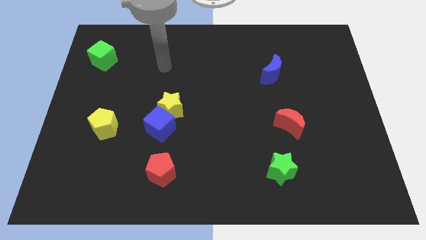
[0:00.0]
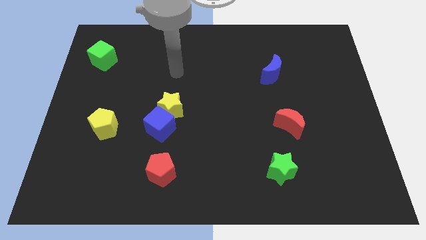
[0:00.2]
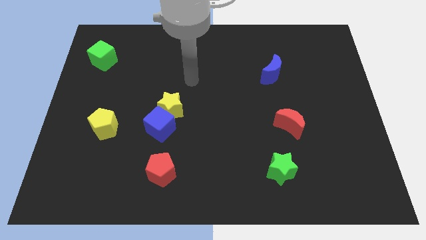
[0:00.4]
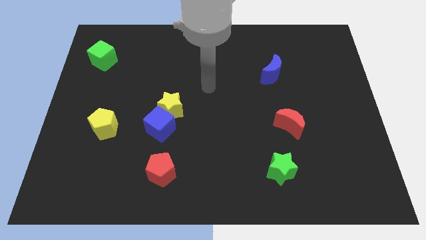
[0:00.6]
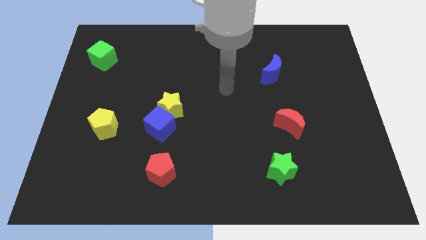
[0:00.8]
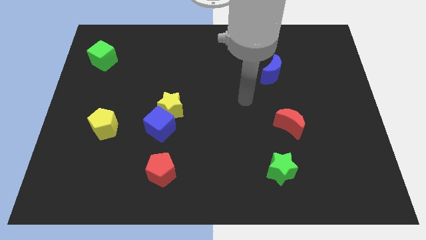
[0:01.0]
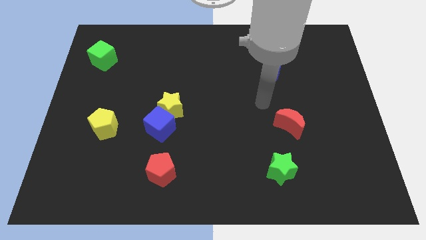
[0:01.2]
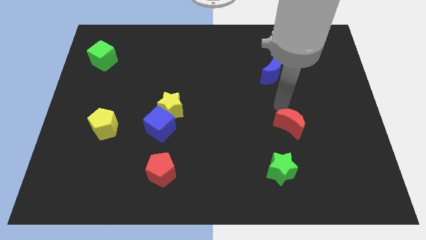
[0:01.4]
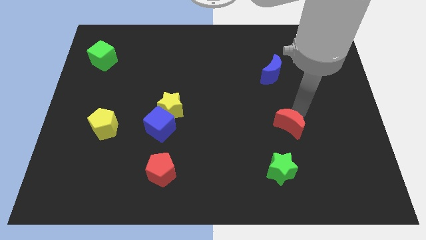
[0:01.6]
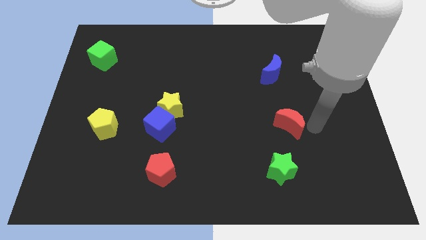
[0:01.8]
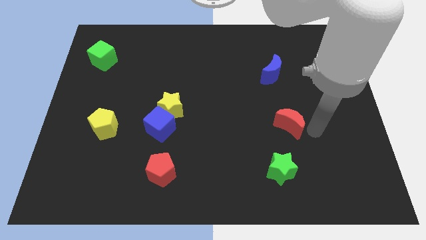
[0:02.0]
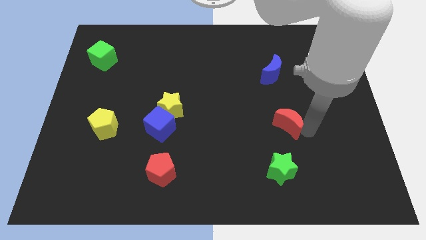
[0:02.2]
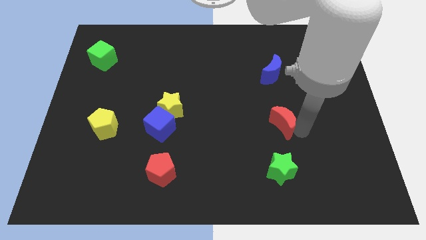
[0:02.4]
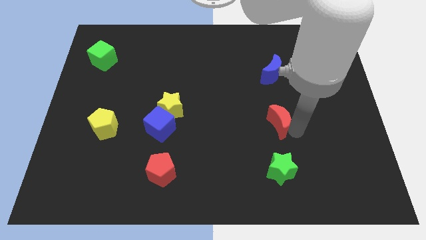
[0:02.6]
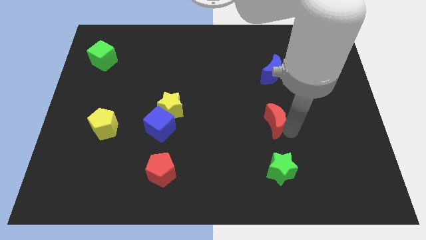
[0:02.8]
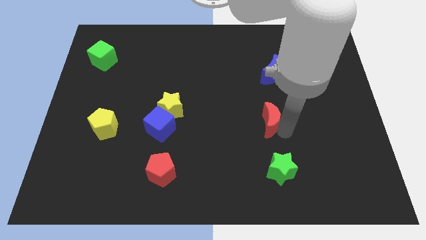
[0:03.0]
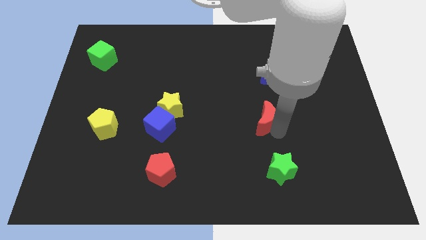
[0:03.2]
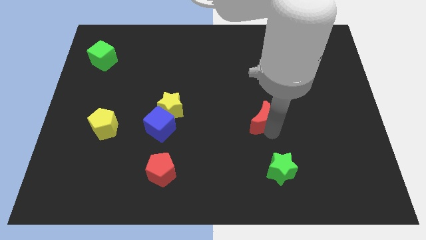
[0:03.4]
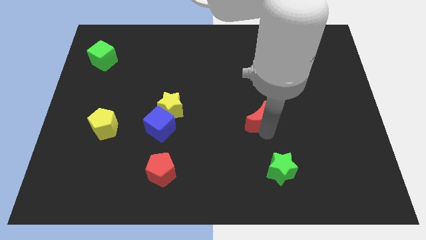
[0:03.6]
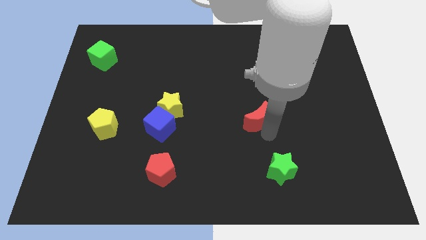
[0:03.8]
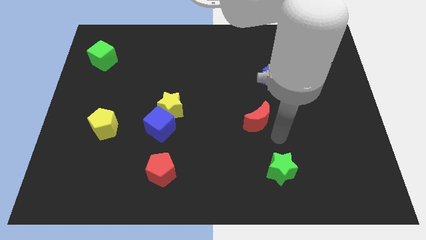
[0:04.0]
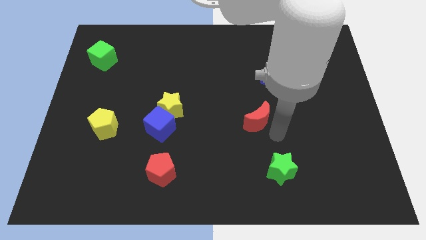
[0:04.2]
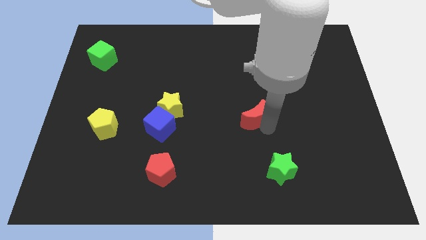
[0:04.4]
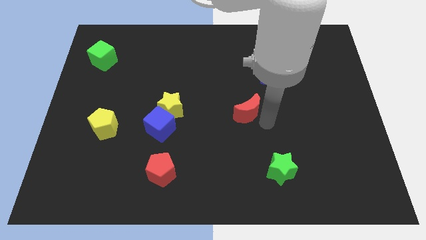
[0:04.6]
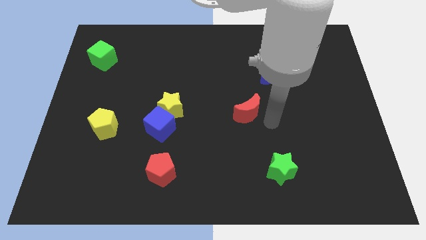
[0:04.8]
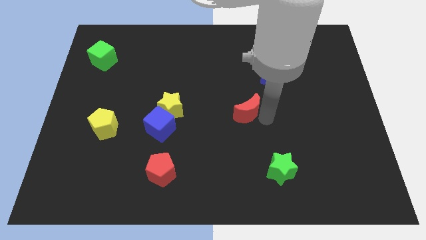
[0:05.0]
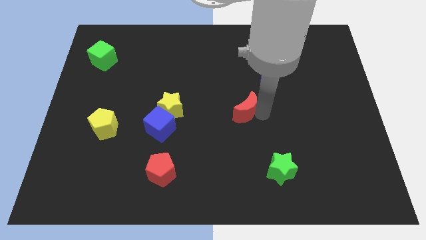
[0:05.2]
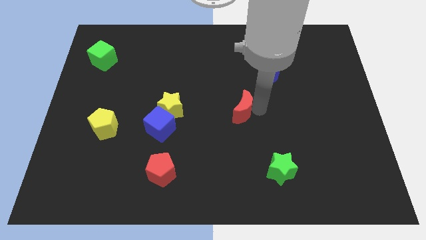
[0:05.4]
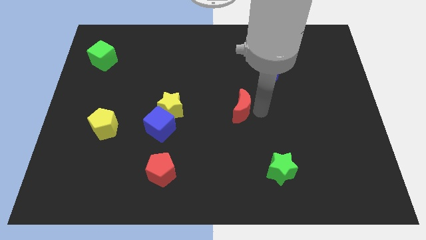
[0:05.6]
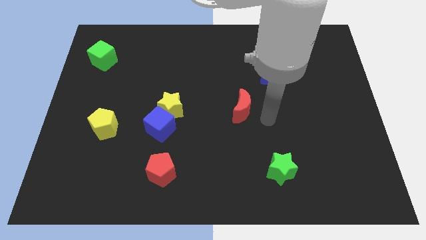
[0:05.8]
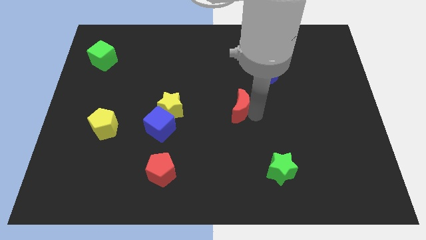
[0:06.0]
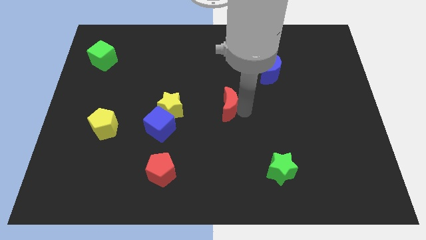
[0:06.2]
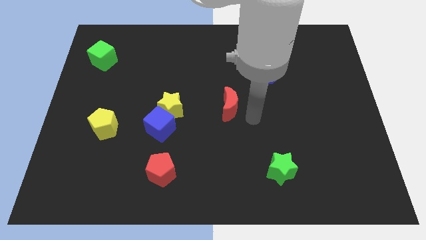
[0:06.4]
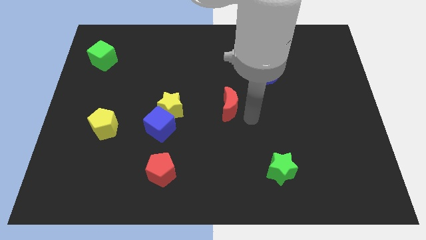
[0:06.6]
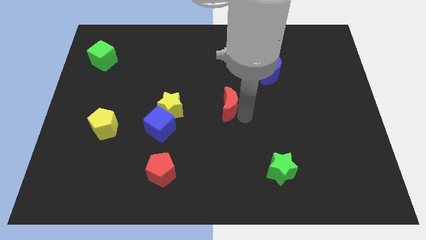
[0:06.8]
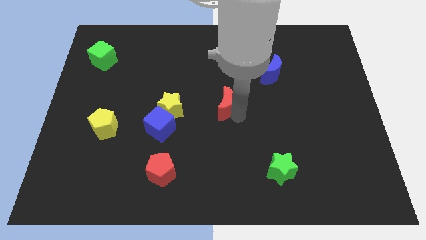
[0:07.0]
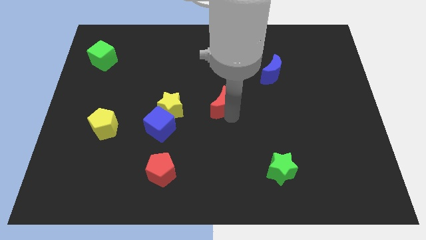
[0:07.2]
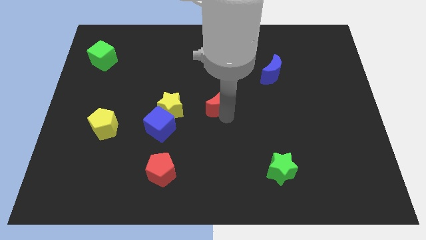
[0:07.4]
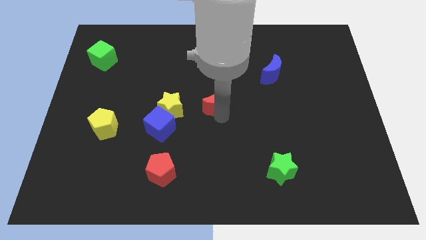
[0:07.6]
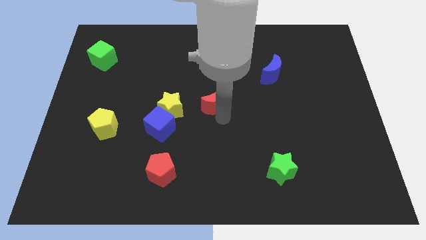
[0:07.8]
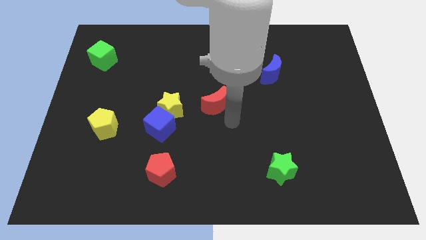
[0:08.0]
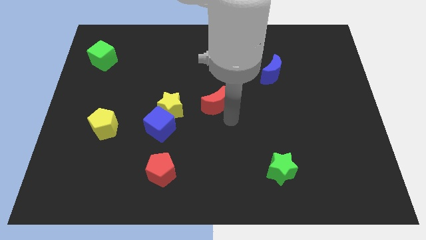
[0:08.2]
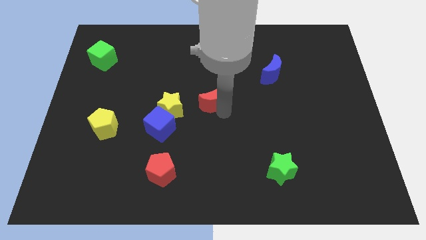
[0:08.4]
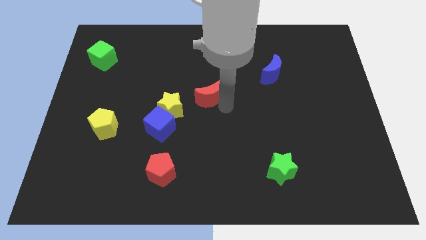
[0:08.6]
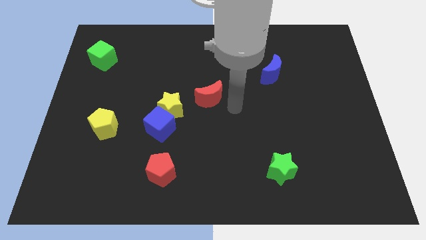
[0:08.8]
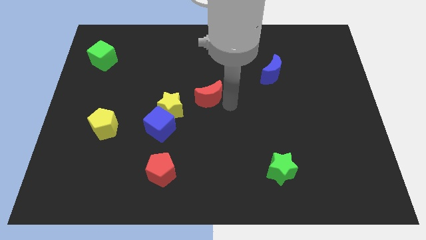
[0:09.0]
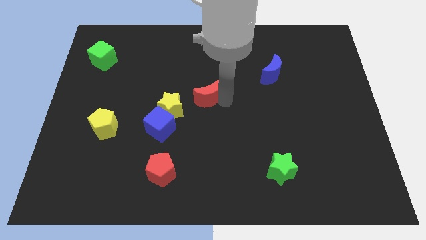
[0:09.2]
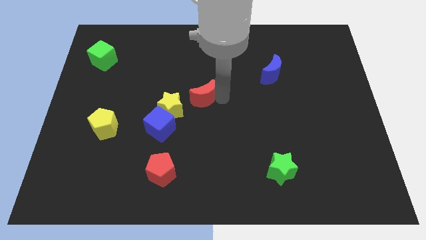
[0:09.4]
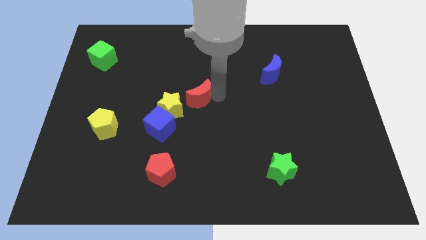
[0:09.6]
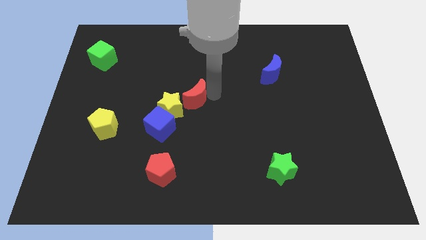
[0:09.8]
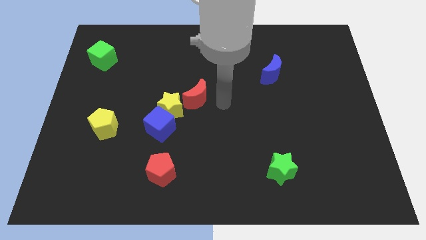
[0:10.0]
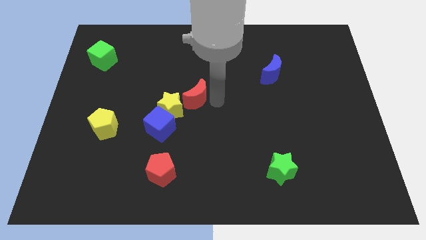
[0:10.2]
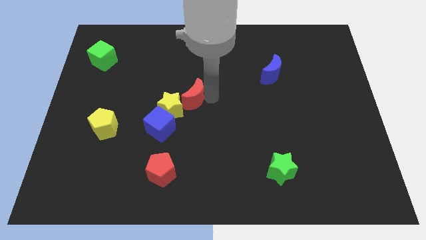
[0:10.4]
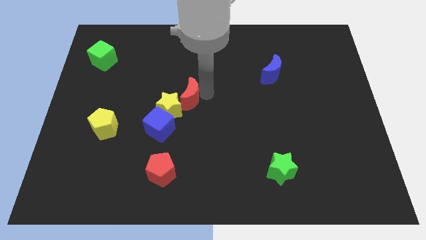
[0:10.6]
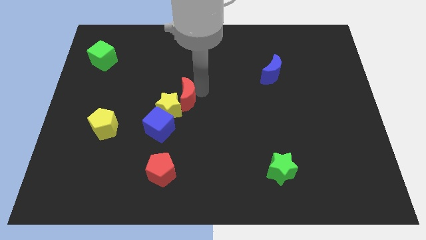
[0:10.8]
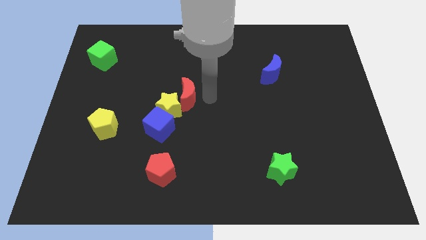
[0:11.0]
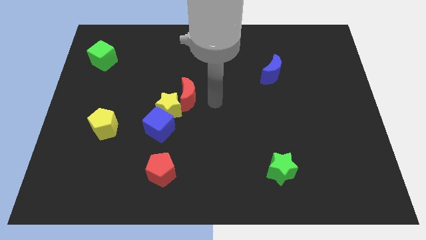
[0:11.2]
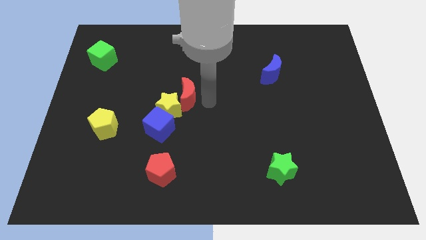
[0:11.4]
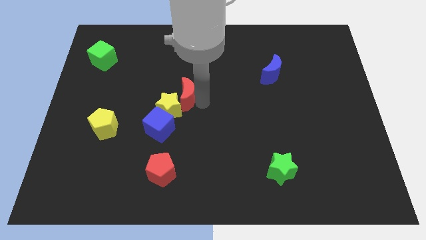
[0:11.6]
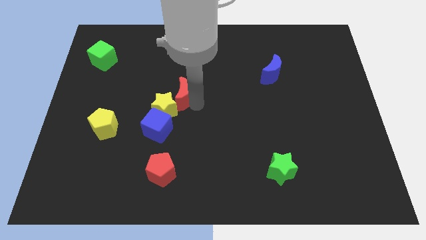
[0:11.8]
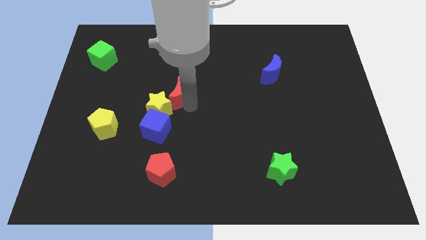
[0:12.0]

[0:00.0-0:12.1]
move the red moon to the top side of the blue cube

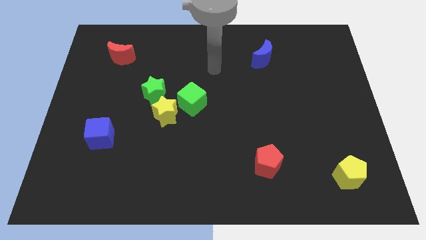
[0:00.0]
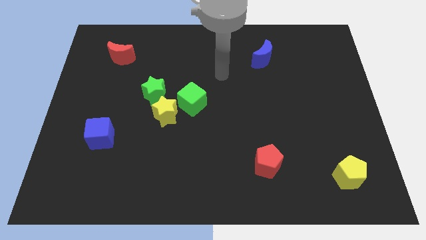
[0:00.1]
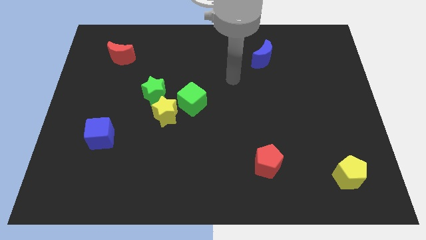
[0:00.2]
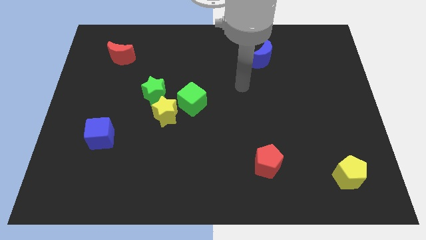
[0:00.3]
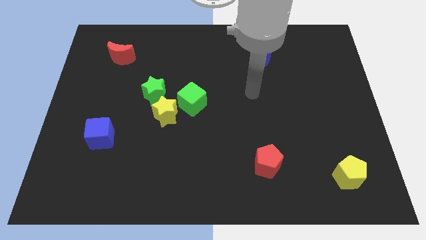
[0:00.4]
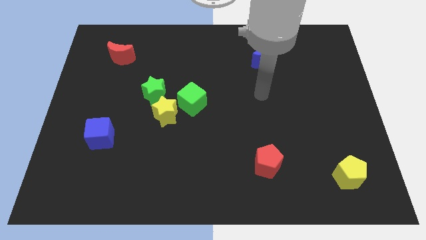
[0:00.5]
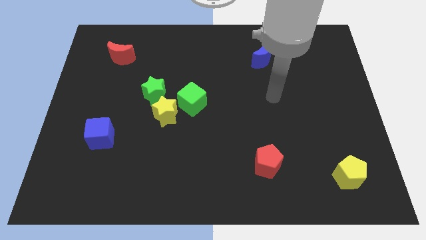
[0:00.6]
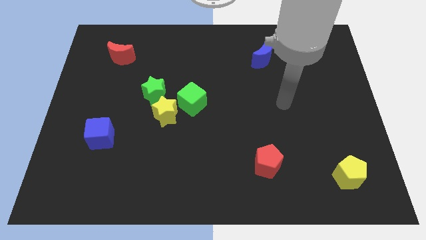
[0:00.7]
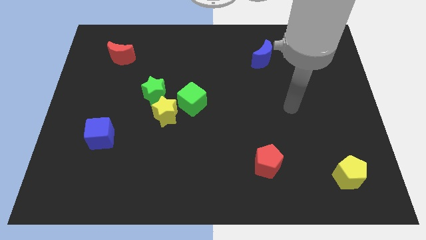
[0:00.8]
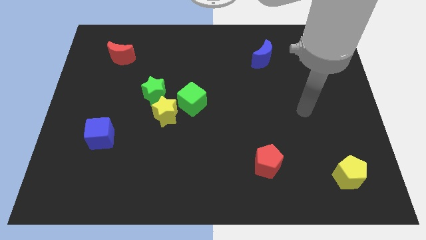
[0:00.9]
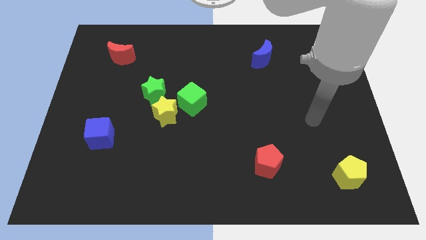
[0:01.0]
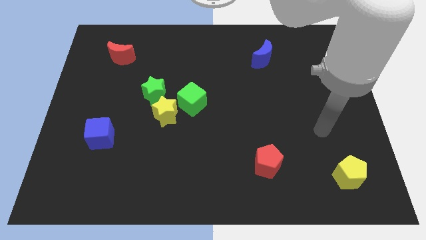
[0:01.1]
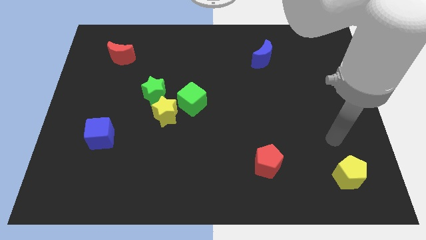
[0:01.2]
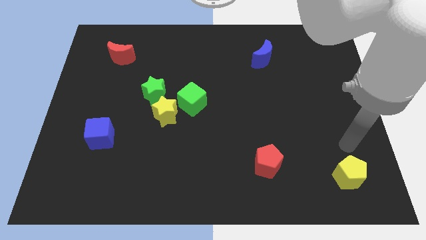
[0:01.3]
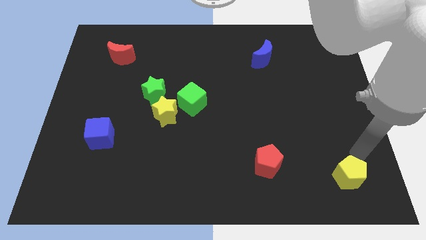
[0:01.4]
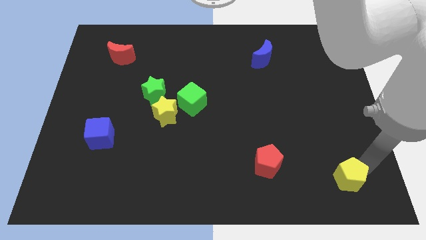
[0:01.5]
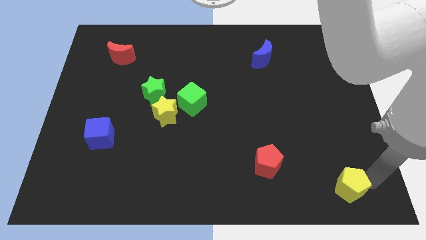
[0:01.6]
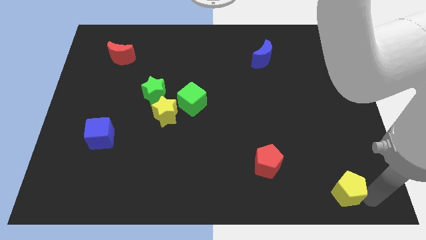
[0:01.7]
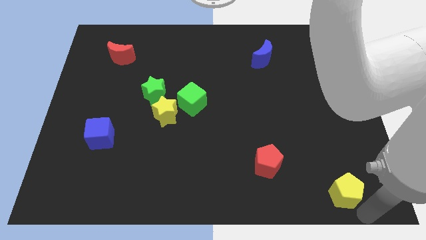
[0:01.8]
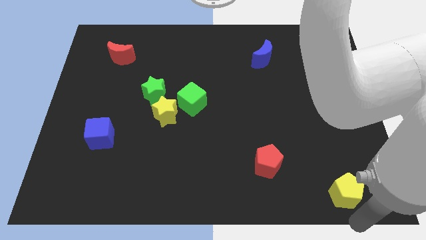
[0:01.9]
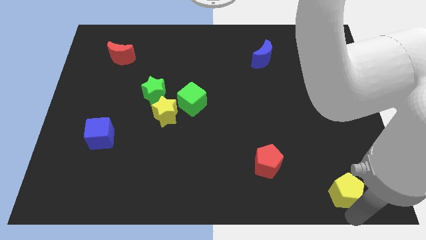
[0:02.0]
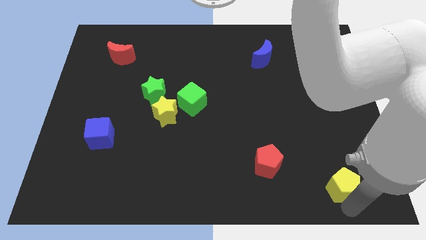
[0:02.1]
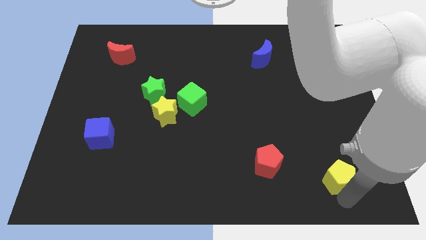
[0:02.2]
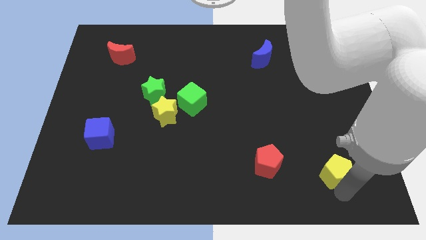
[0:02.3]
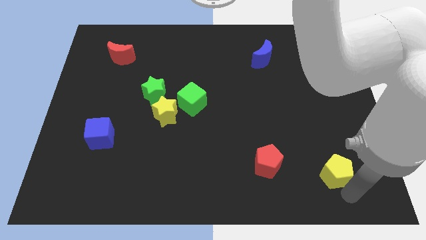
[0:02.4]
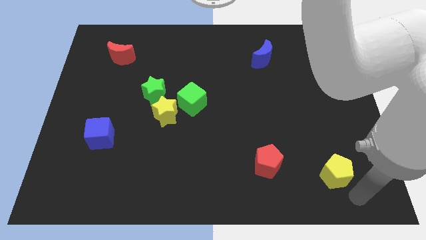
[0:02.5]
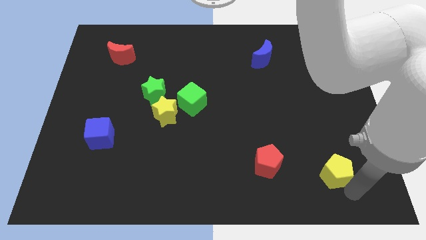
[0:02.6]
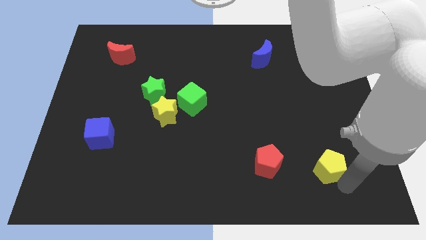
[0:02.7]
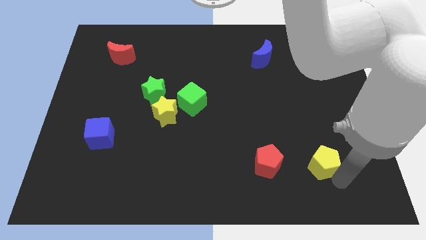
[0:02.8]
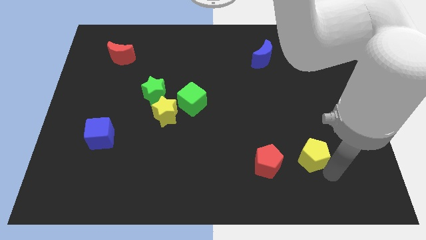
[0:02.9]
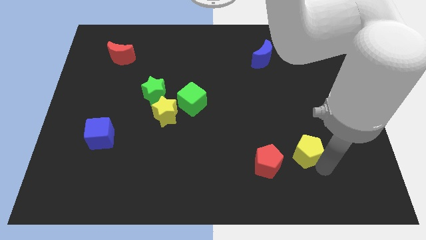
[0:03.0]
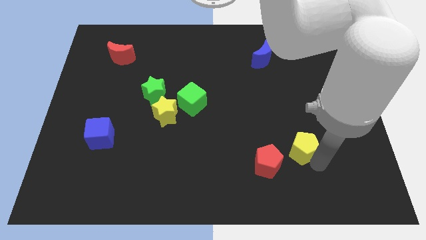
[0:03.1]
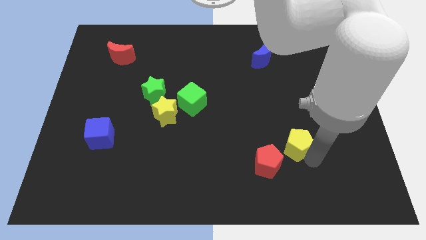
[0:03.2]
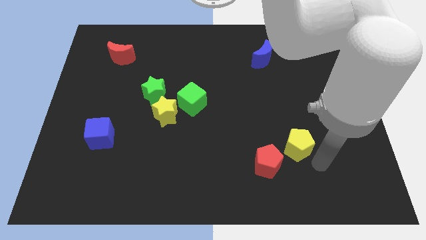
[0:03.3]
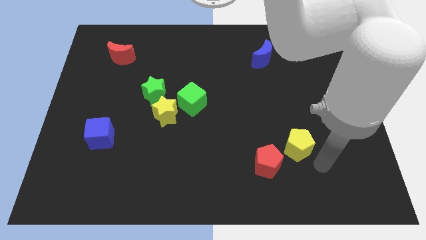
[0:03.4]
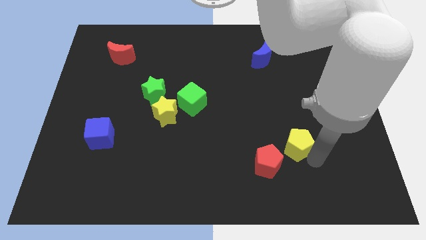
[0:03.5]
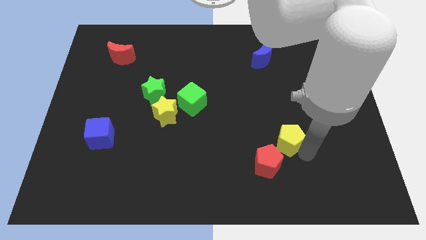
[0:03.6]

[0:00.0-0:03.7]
slide the yellow pentagon above the red pentagon
